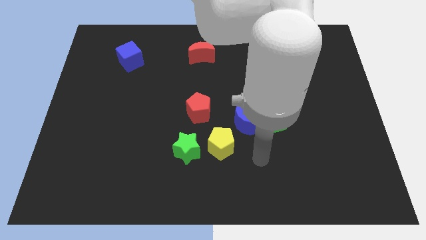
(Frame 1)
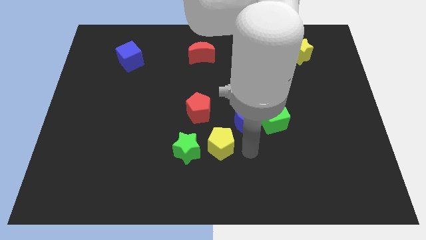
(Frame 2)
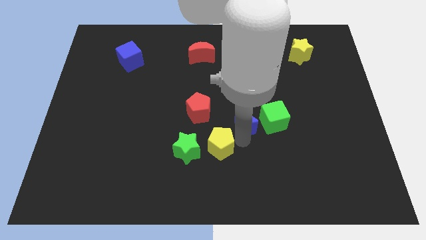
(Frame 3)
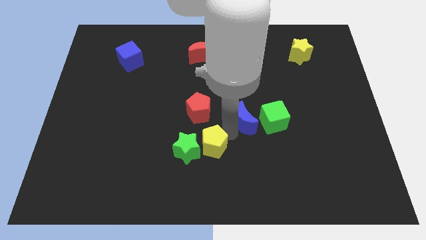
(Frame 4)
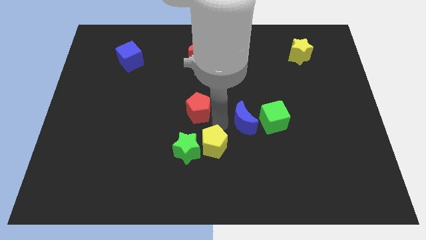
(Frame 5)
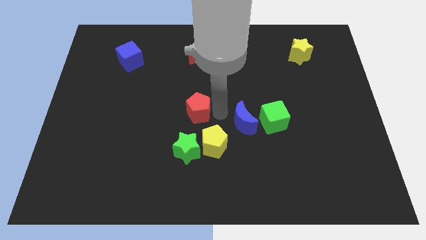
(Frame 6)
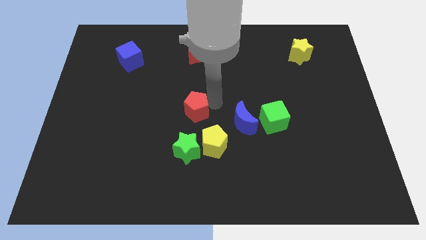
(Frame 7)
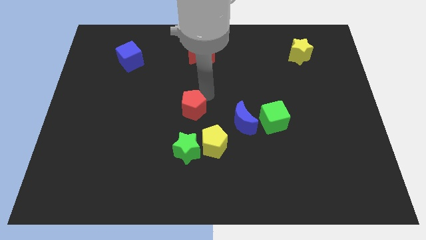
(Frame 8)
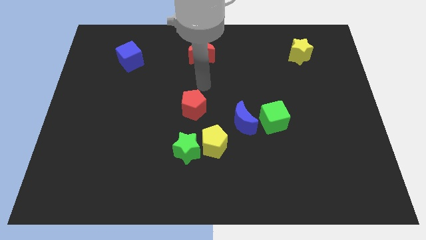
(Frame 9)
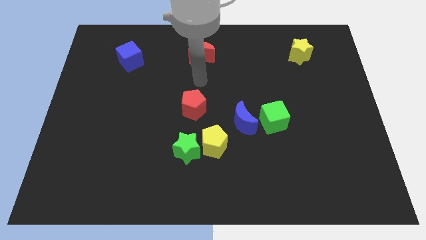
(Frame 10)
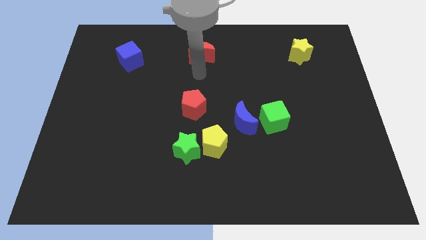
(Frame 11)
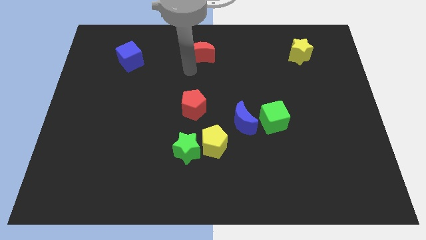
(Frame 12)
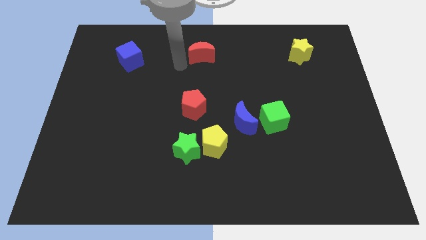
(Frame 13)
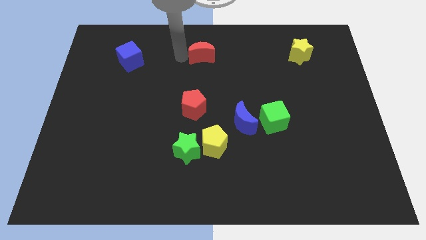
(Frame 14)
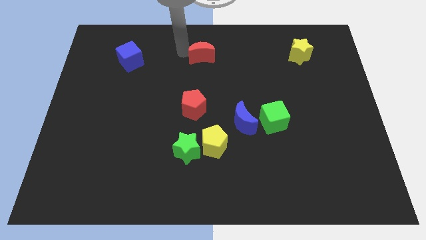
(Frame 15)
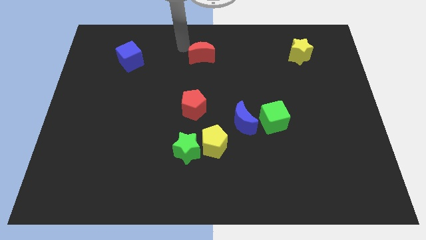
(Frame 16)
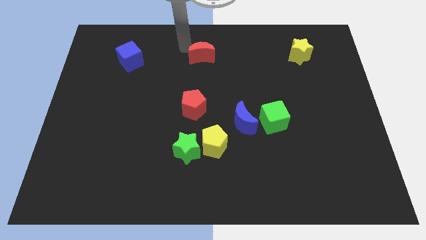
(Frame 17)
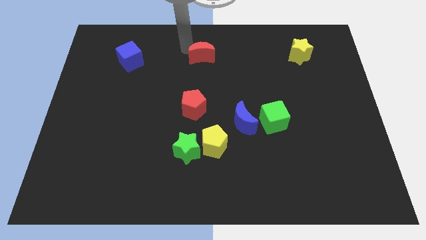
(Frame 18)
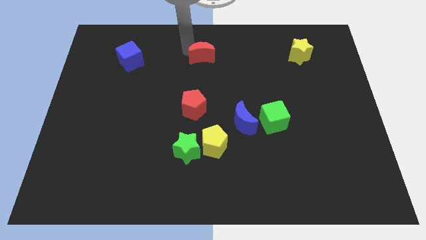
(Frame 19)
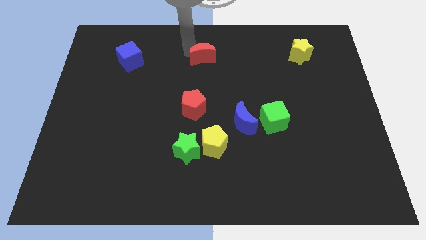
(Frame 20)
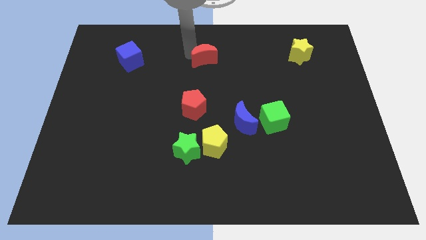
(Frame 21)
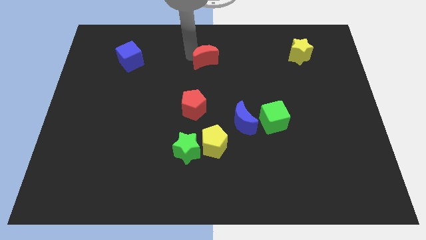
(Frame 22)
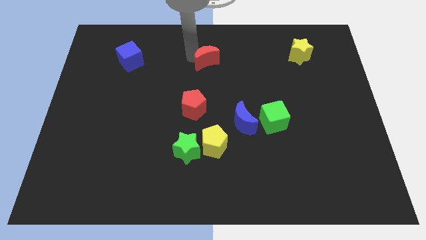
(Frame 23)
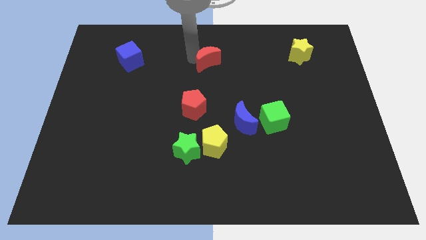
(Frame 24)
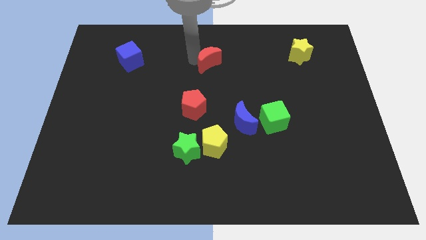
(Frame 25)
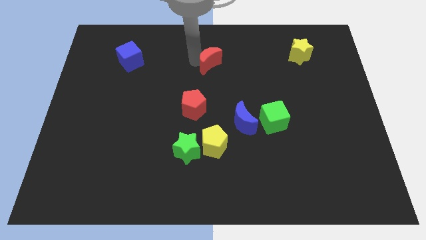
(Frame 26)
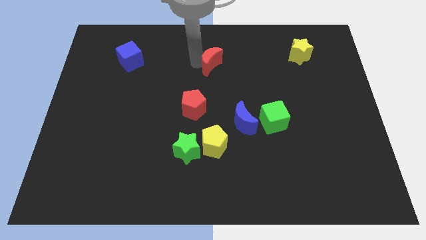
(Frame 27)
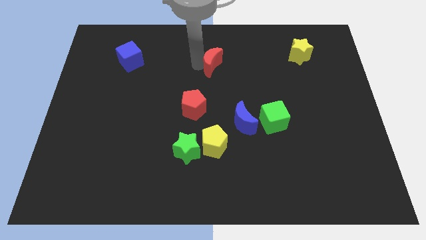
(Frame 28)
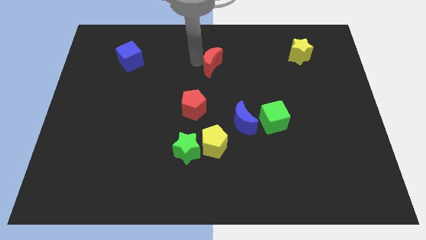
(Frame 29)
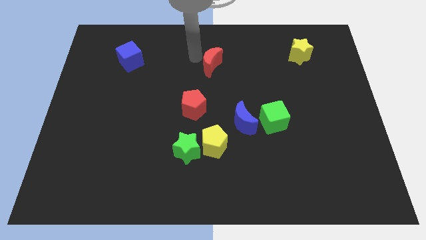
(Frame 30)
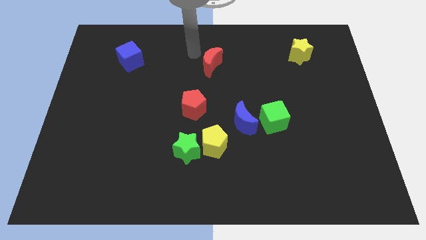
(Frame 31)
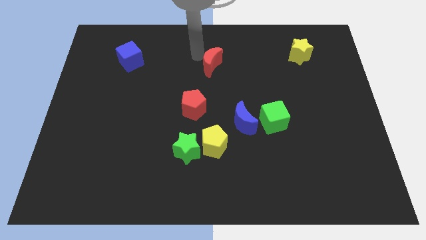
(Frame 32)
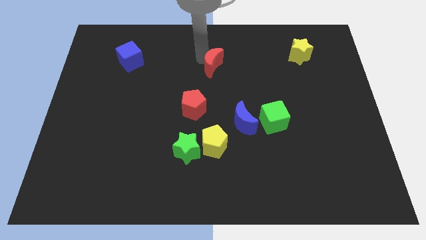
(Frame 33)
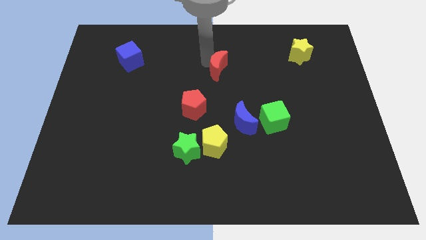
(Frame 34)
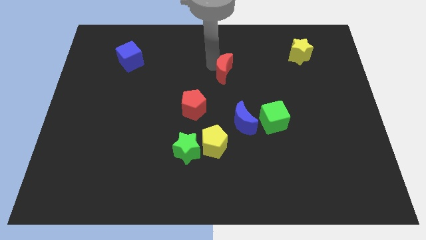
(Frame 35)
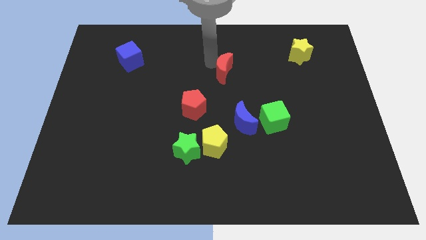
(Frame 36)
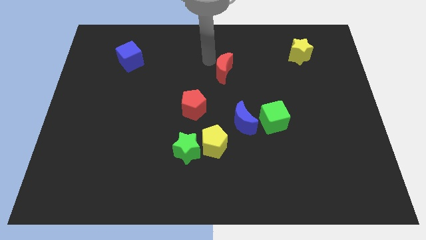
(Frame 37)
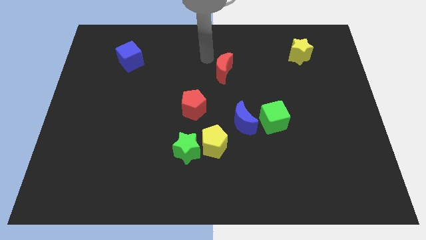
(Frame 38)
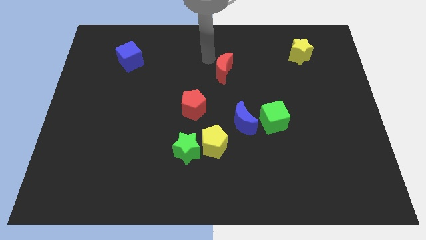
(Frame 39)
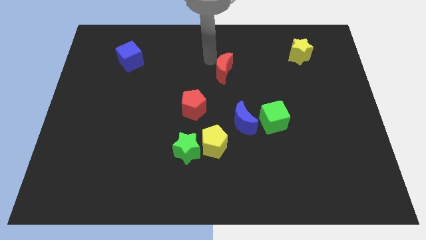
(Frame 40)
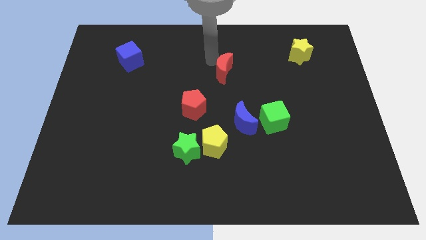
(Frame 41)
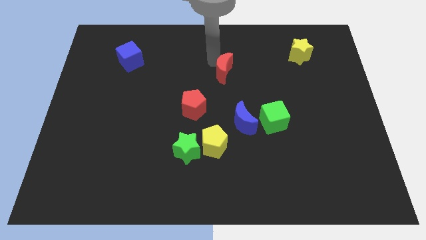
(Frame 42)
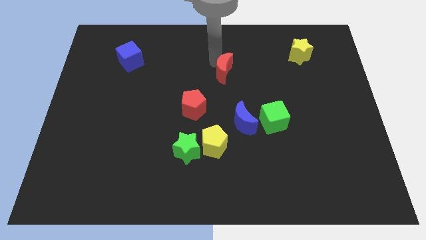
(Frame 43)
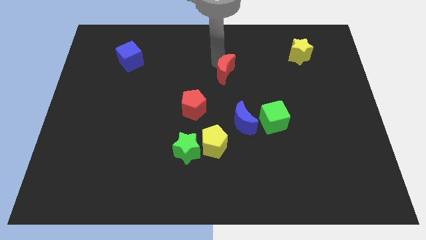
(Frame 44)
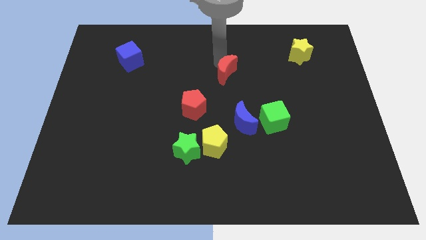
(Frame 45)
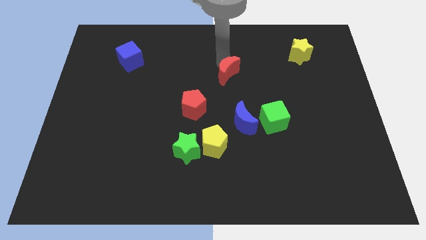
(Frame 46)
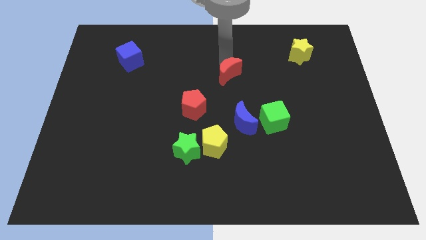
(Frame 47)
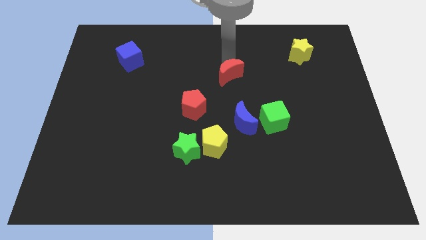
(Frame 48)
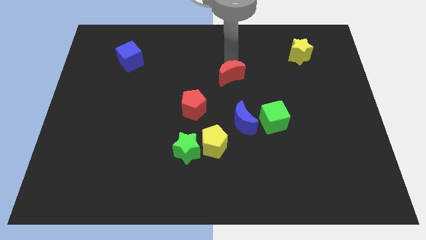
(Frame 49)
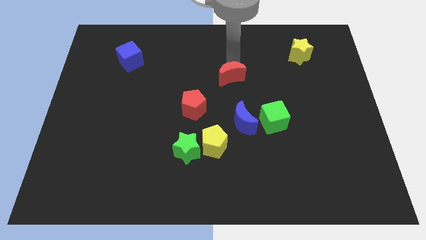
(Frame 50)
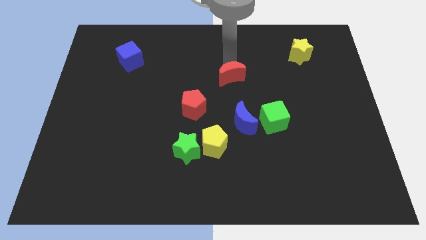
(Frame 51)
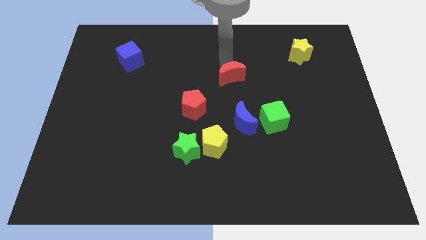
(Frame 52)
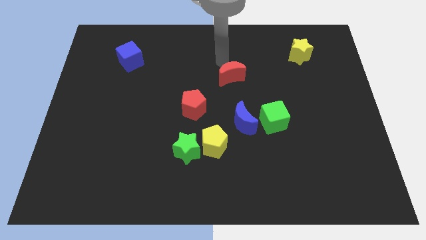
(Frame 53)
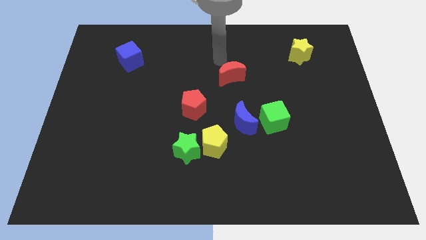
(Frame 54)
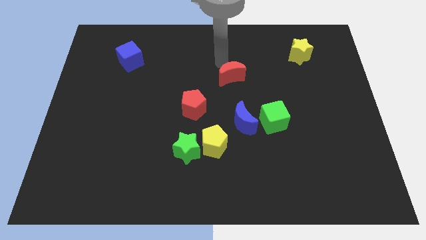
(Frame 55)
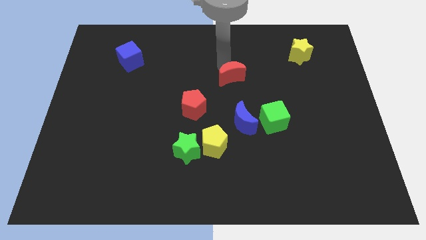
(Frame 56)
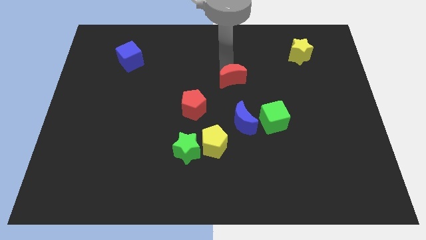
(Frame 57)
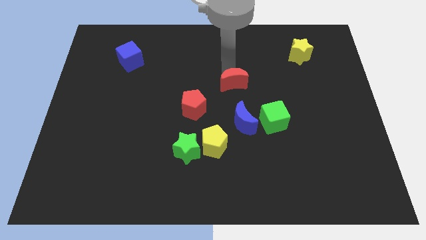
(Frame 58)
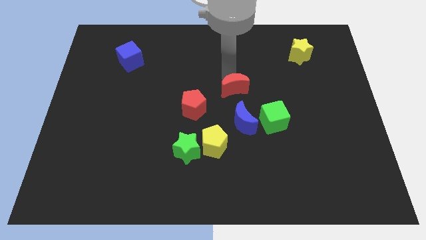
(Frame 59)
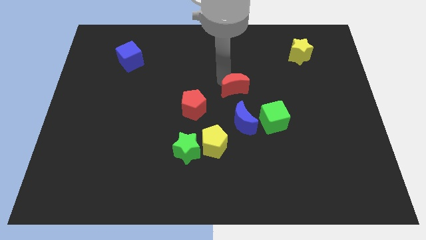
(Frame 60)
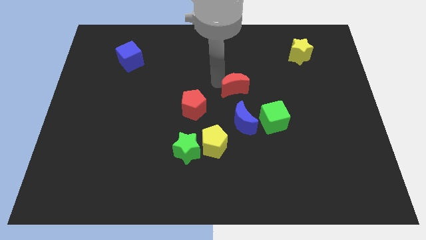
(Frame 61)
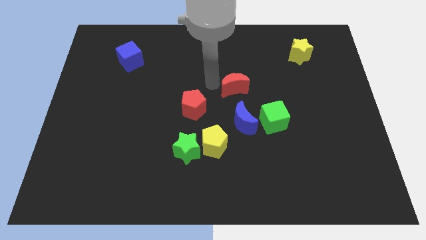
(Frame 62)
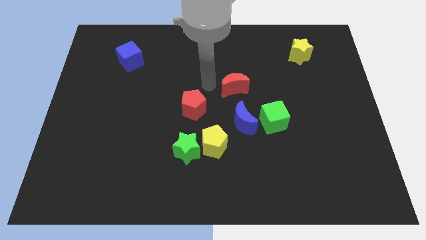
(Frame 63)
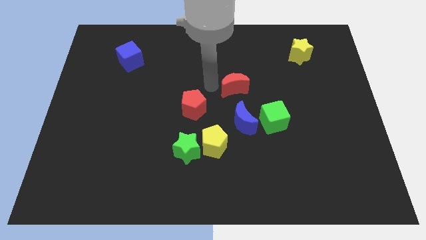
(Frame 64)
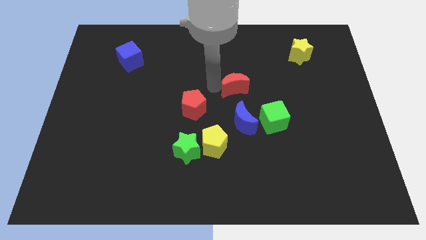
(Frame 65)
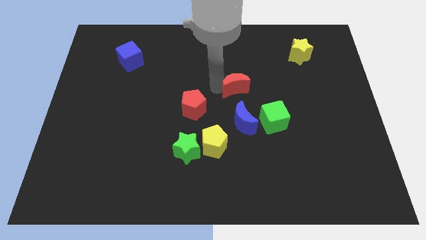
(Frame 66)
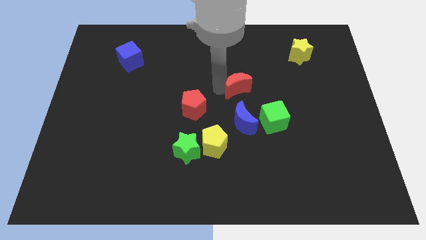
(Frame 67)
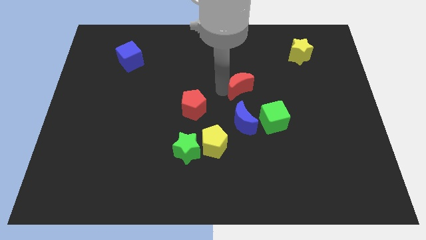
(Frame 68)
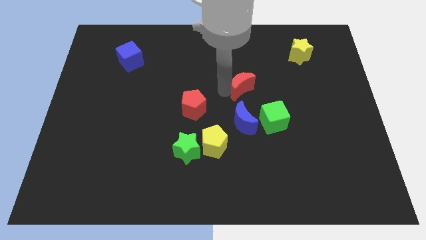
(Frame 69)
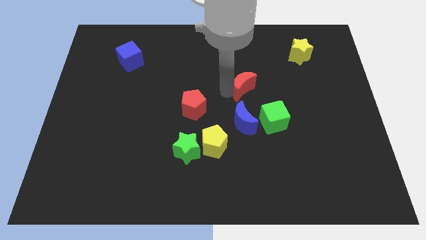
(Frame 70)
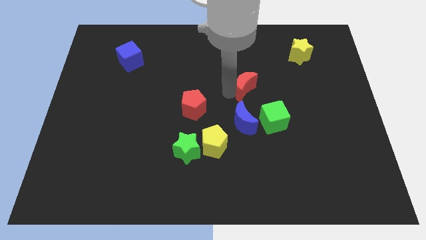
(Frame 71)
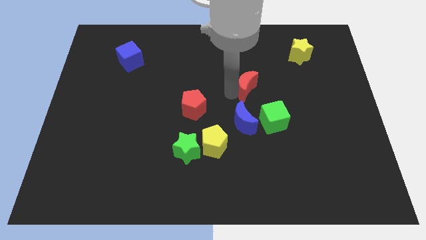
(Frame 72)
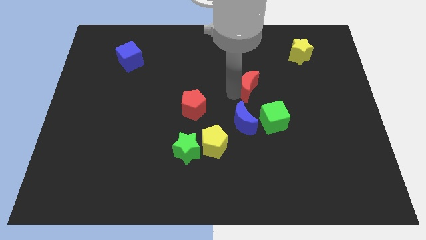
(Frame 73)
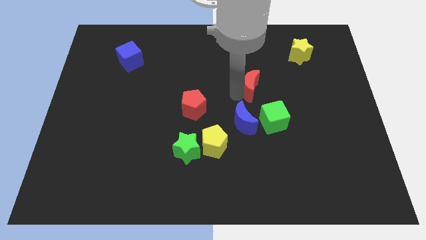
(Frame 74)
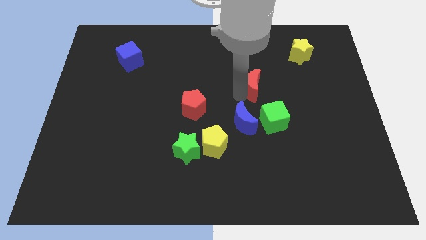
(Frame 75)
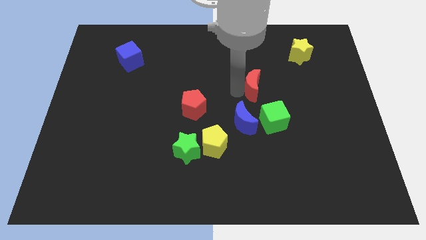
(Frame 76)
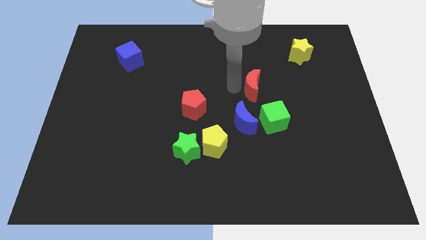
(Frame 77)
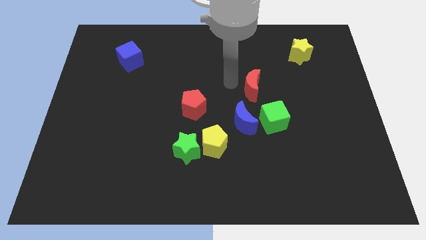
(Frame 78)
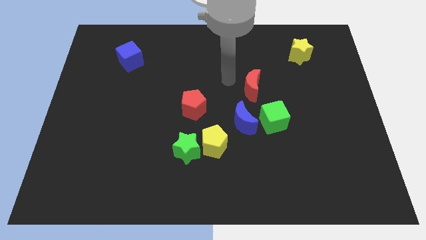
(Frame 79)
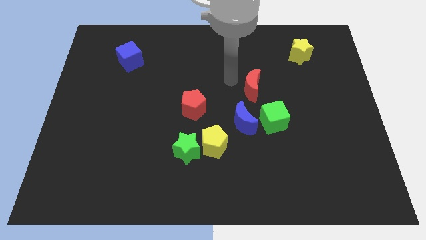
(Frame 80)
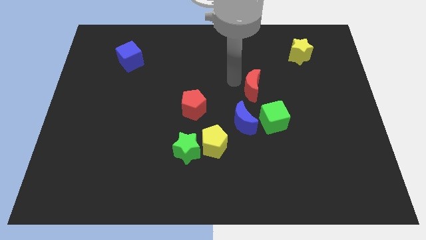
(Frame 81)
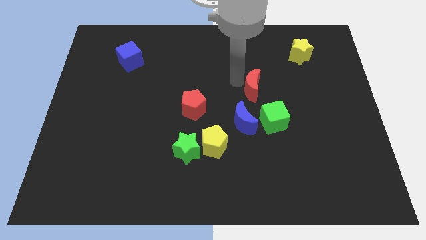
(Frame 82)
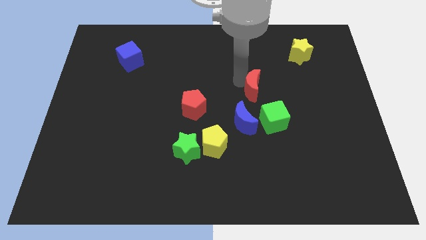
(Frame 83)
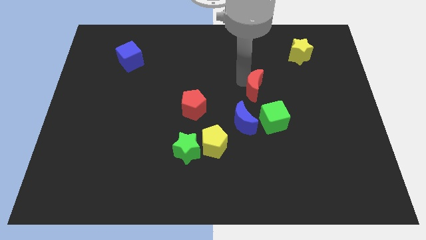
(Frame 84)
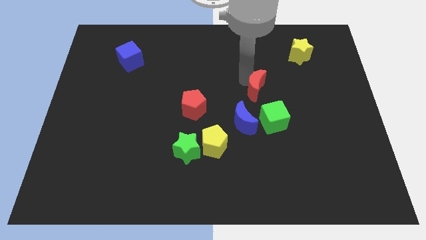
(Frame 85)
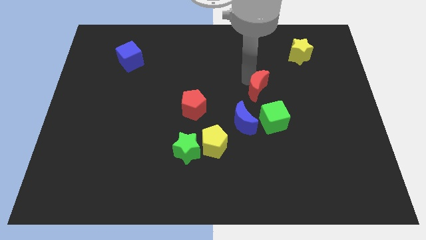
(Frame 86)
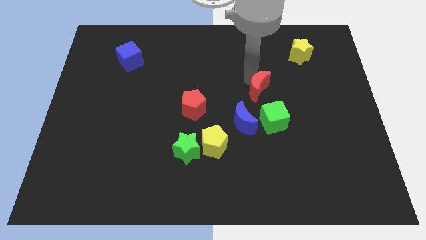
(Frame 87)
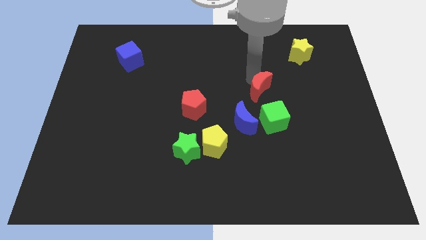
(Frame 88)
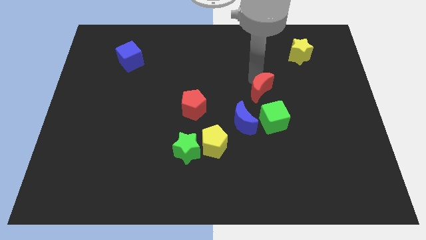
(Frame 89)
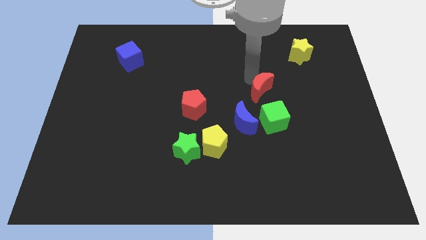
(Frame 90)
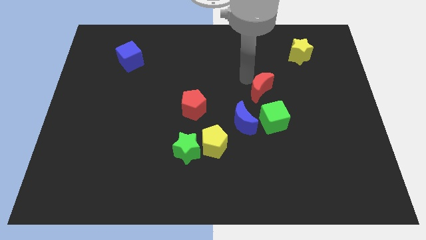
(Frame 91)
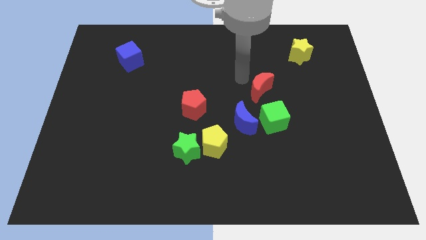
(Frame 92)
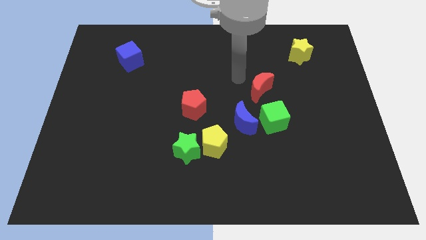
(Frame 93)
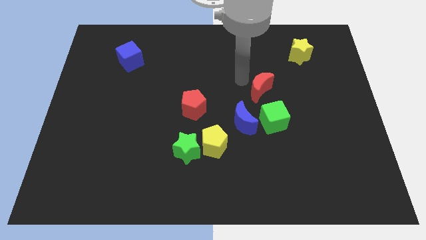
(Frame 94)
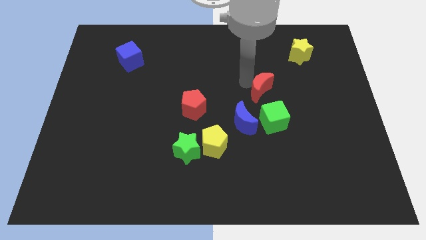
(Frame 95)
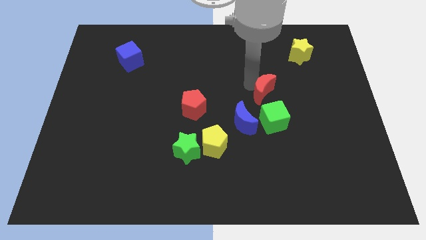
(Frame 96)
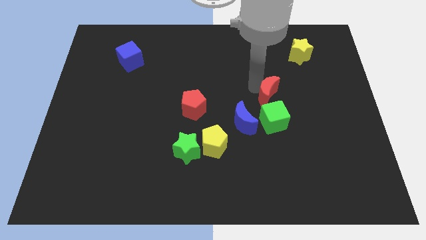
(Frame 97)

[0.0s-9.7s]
move the red moon down and to the right diagonally
